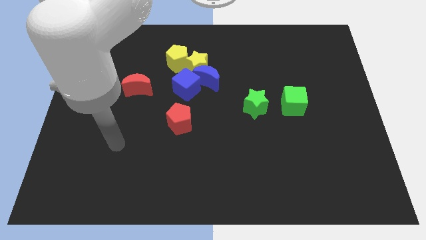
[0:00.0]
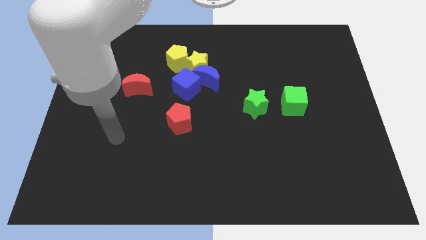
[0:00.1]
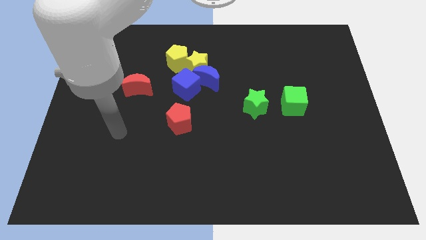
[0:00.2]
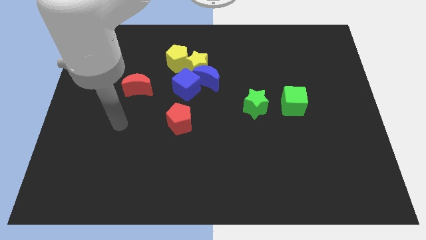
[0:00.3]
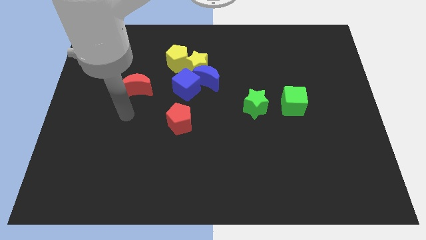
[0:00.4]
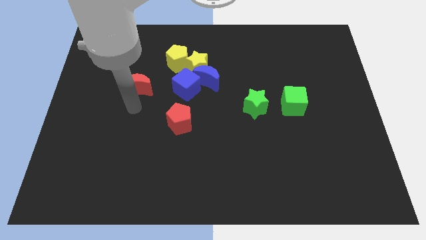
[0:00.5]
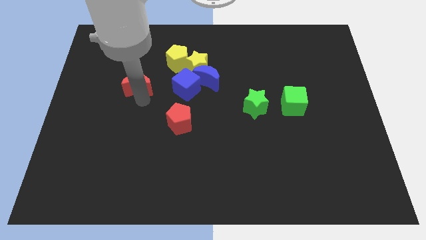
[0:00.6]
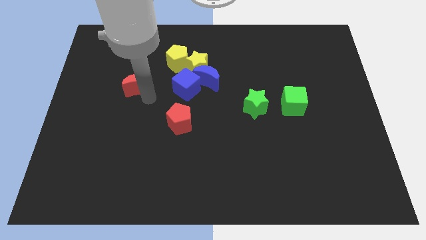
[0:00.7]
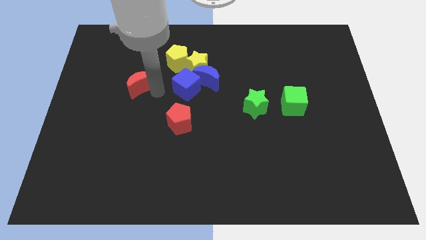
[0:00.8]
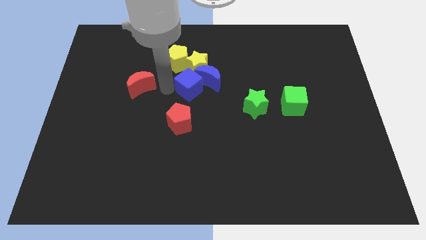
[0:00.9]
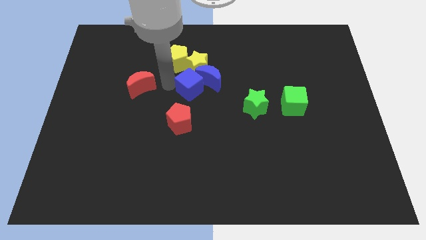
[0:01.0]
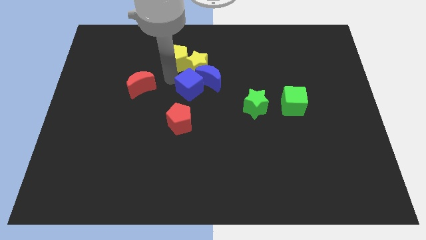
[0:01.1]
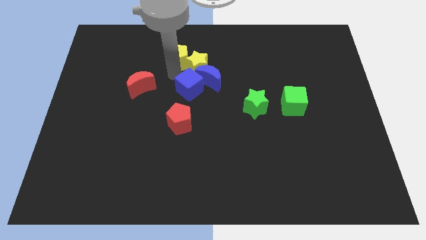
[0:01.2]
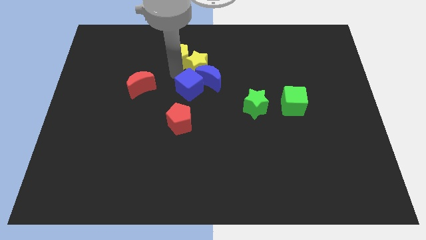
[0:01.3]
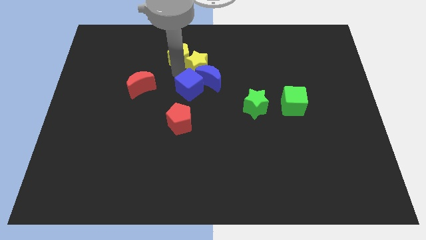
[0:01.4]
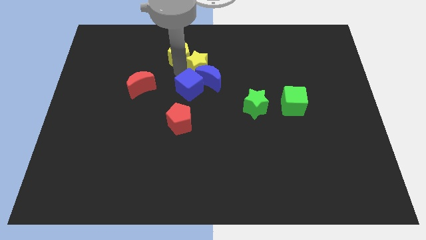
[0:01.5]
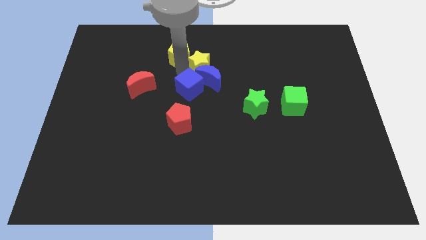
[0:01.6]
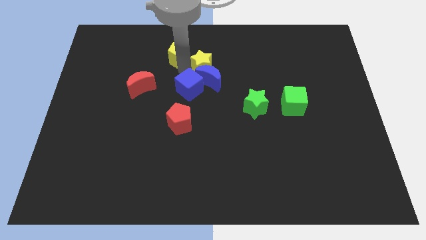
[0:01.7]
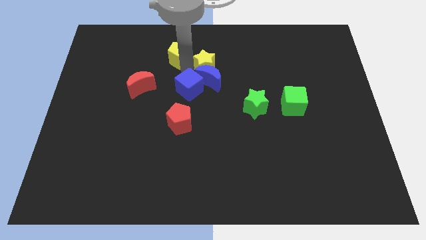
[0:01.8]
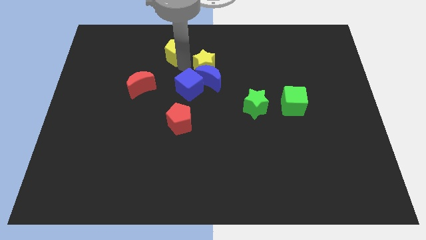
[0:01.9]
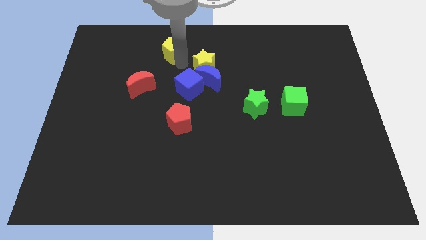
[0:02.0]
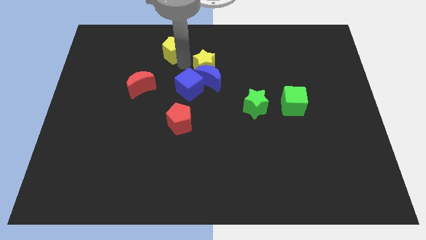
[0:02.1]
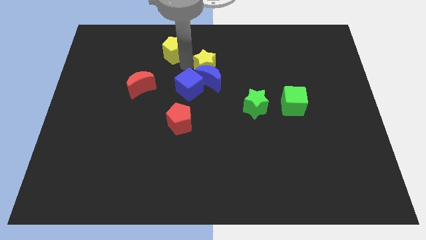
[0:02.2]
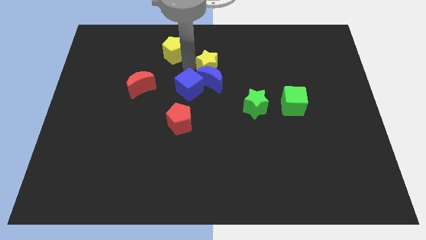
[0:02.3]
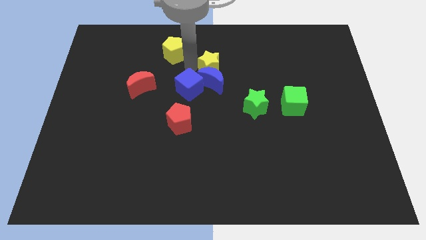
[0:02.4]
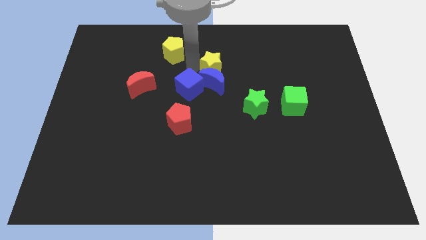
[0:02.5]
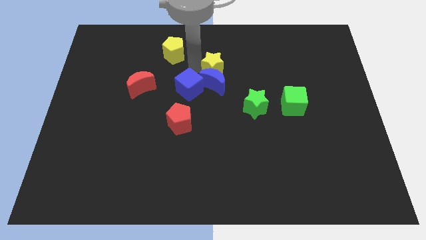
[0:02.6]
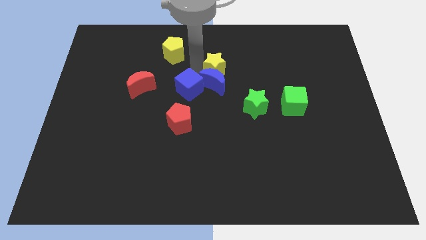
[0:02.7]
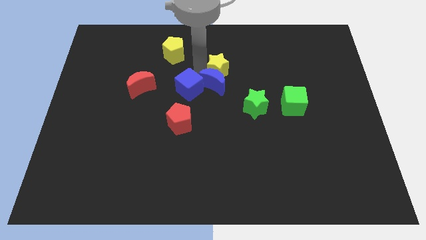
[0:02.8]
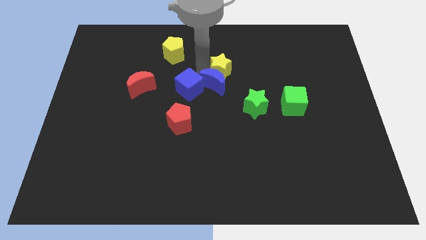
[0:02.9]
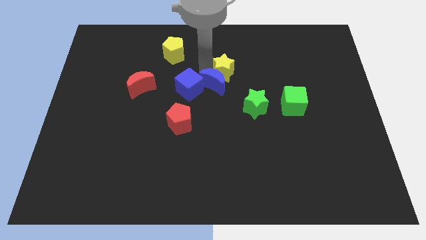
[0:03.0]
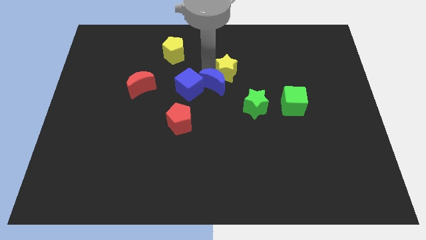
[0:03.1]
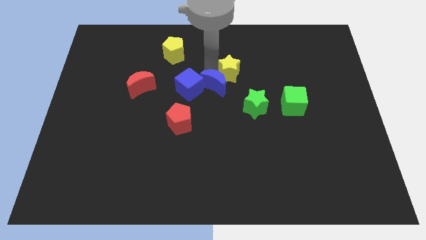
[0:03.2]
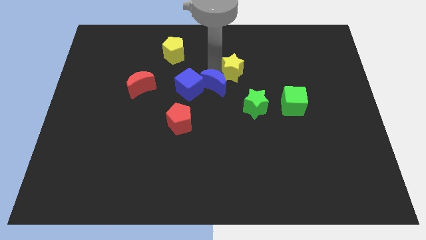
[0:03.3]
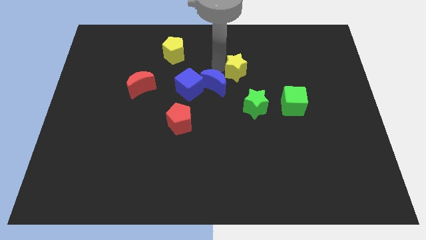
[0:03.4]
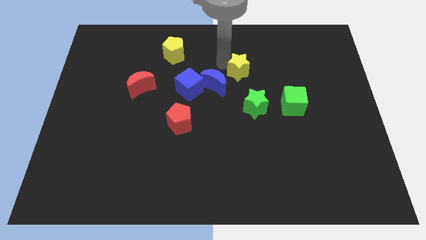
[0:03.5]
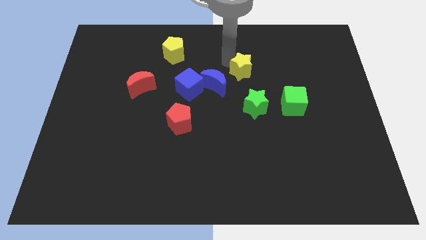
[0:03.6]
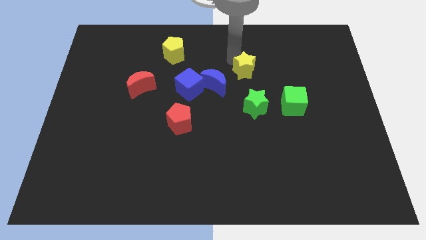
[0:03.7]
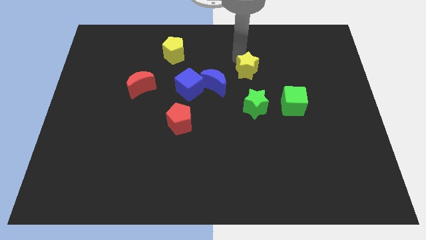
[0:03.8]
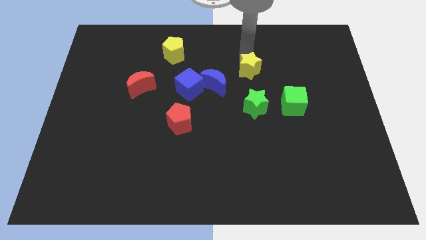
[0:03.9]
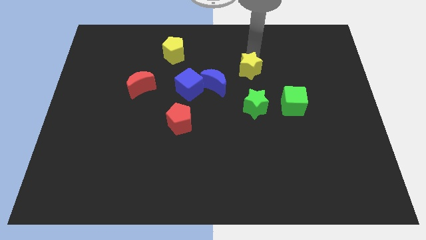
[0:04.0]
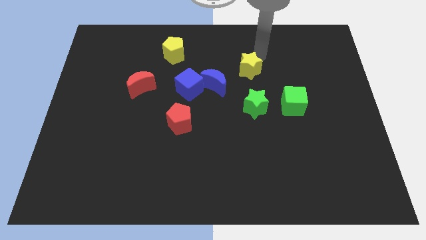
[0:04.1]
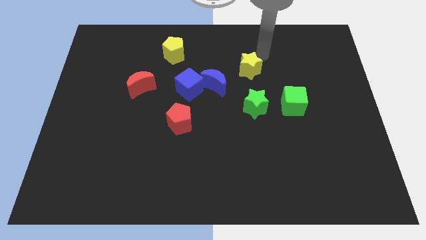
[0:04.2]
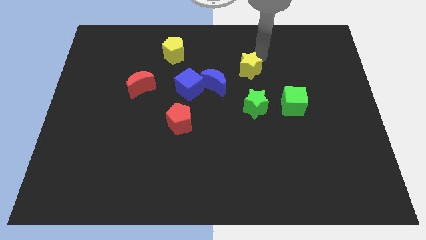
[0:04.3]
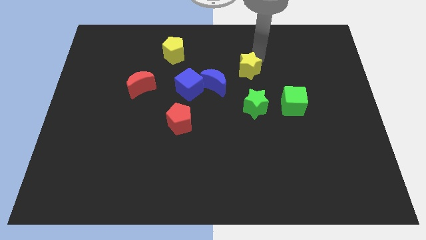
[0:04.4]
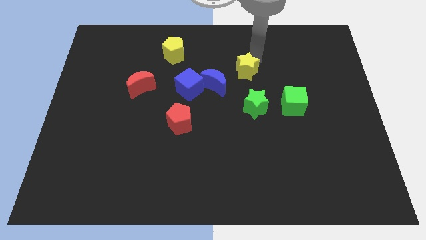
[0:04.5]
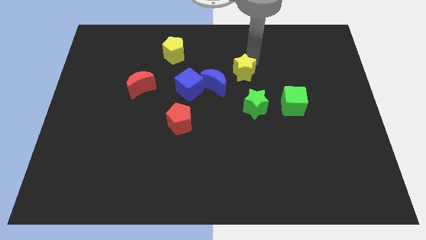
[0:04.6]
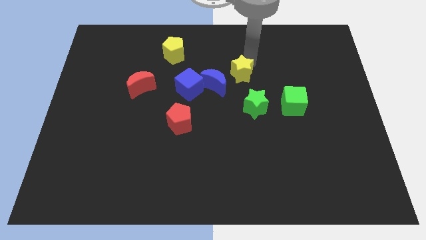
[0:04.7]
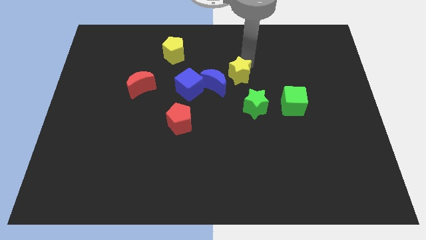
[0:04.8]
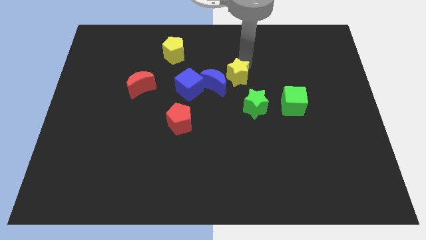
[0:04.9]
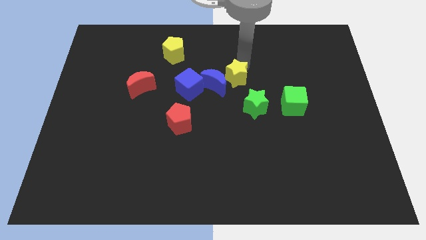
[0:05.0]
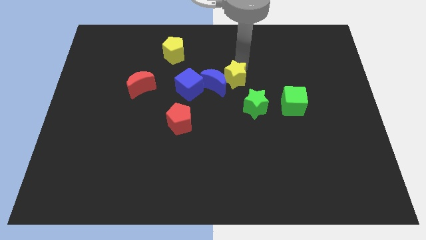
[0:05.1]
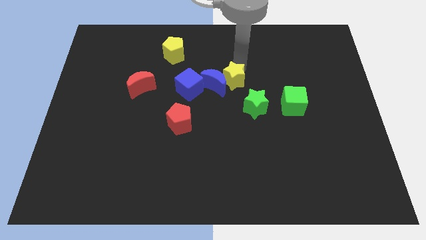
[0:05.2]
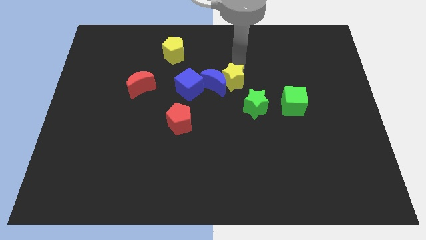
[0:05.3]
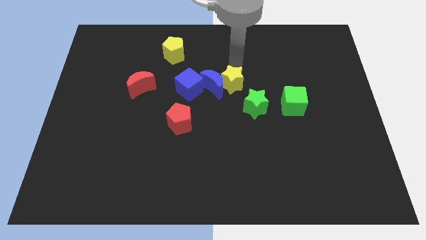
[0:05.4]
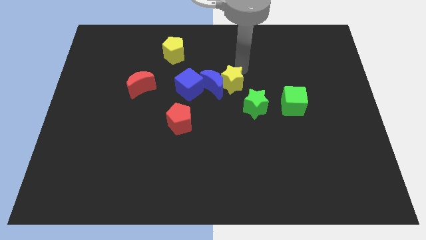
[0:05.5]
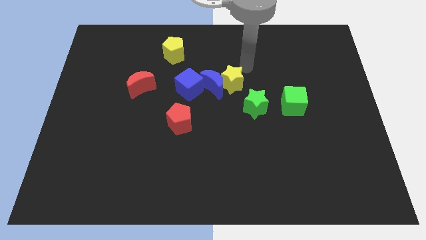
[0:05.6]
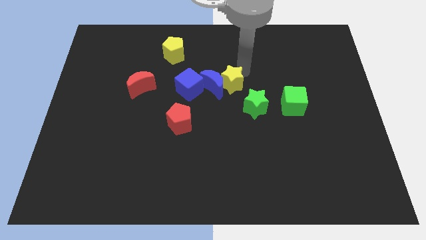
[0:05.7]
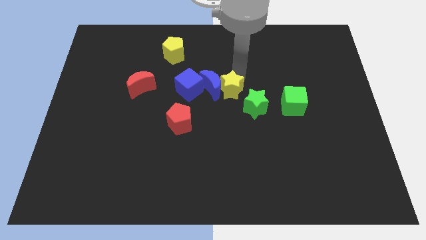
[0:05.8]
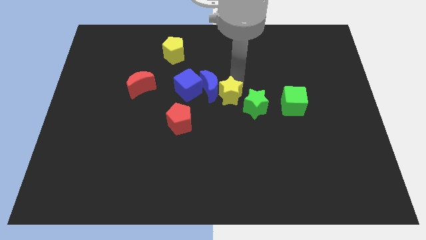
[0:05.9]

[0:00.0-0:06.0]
put the yellow star left of the green star

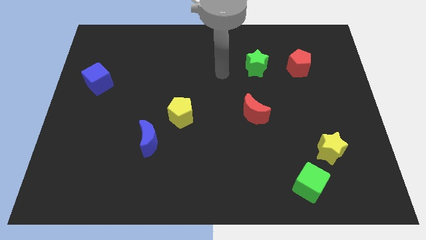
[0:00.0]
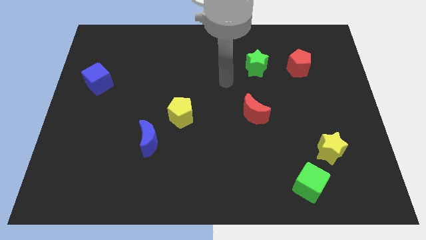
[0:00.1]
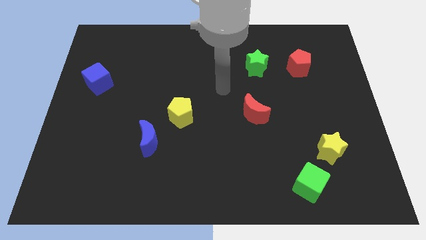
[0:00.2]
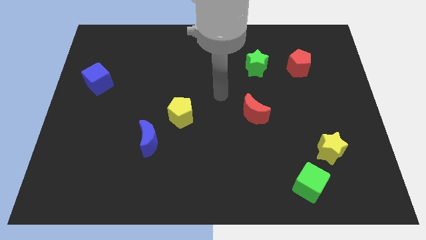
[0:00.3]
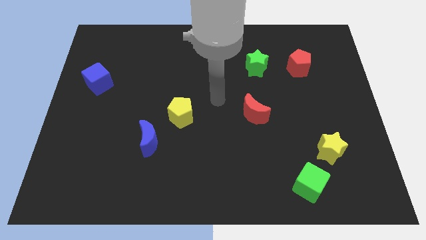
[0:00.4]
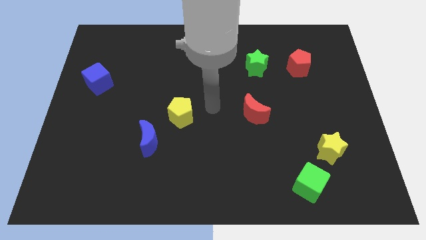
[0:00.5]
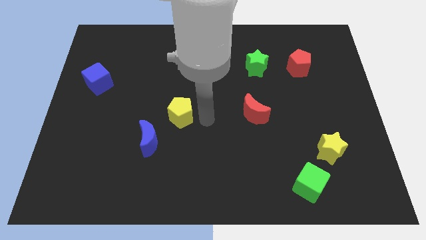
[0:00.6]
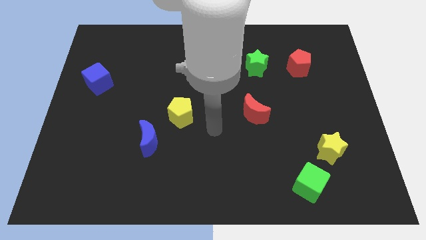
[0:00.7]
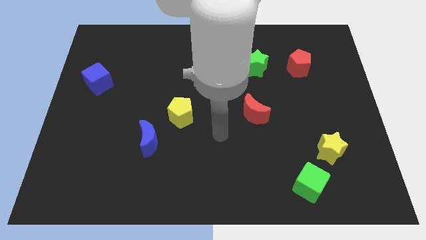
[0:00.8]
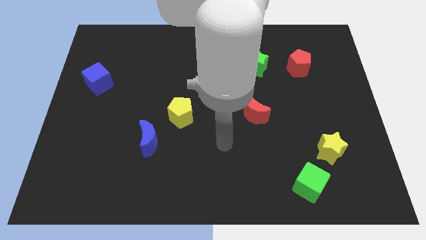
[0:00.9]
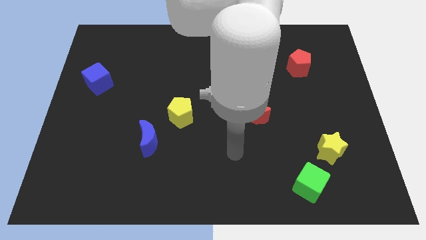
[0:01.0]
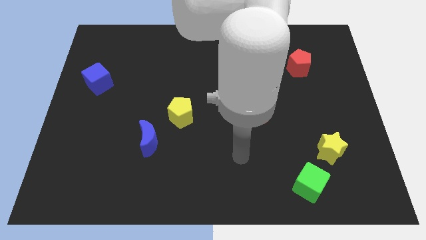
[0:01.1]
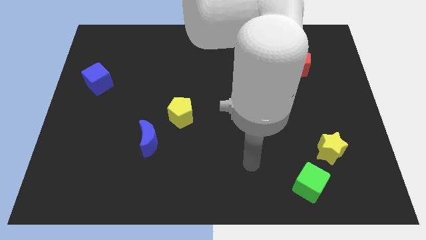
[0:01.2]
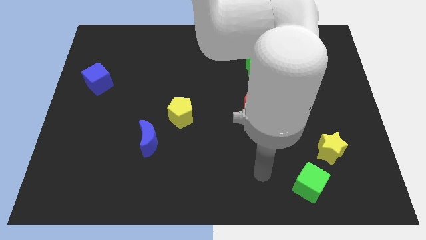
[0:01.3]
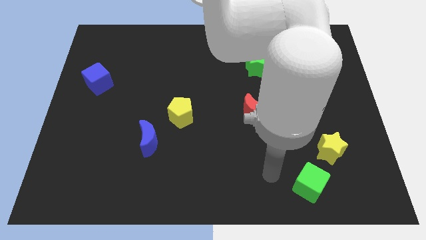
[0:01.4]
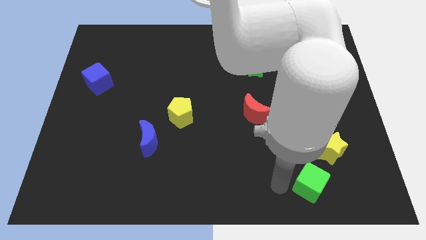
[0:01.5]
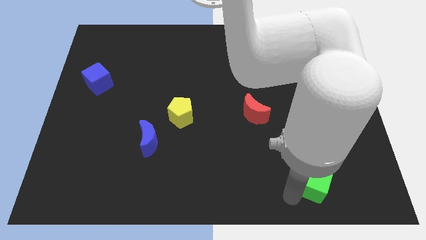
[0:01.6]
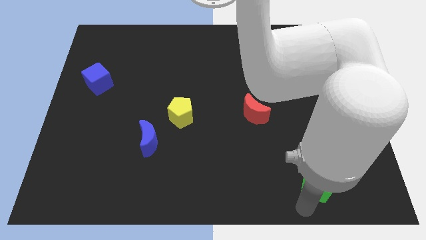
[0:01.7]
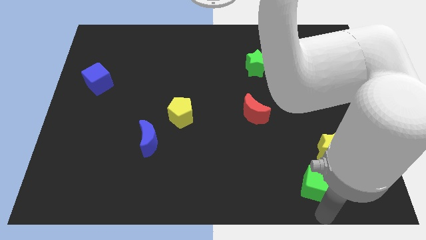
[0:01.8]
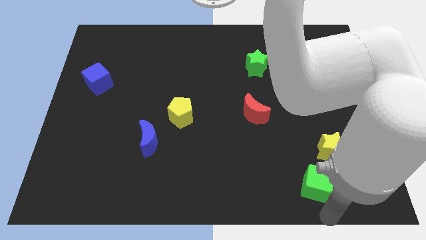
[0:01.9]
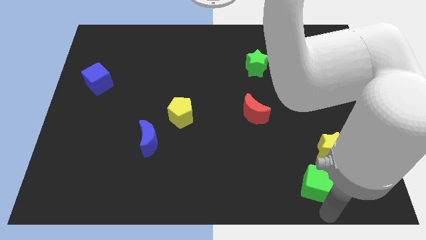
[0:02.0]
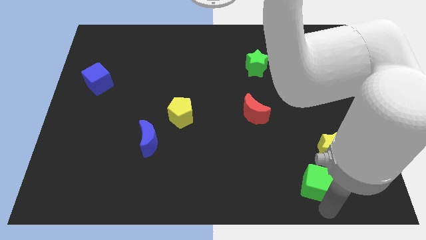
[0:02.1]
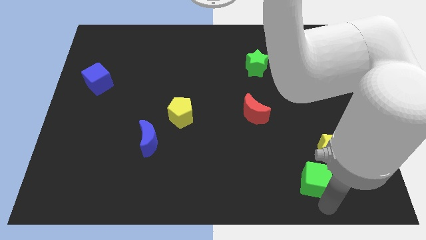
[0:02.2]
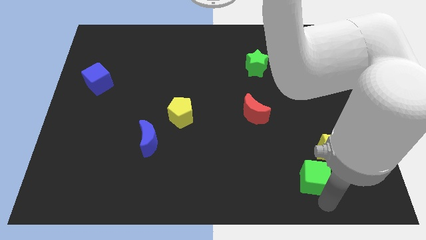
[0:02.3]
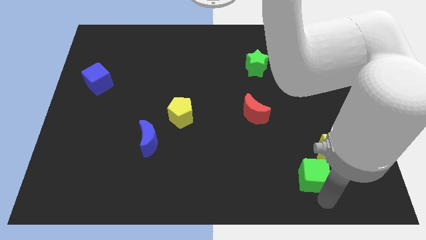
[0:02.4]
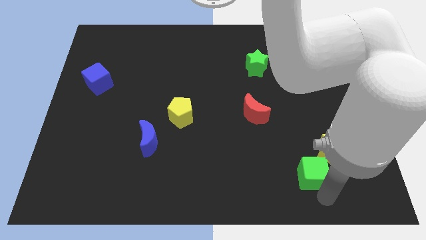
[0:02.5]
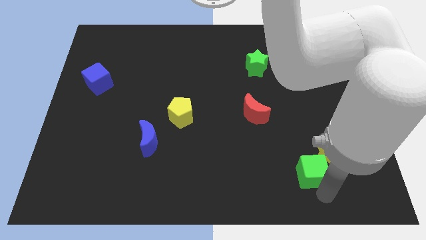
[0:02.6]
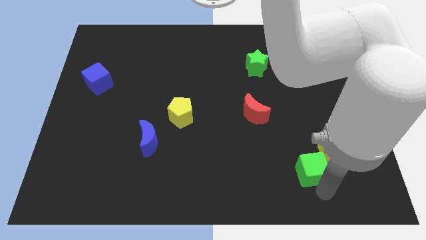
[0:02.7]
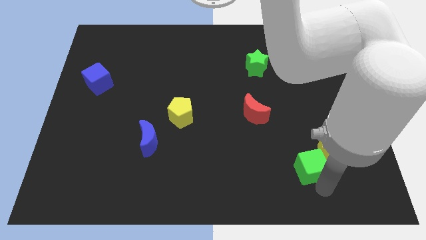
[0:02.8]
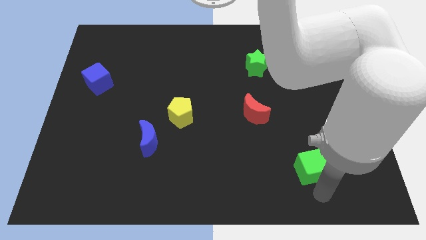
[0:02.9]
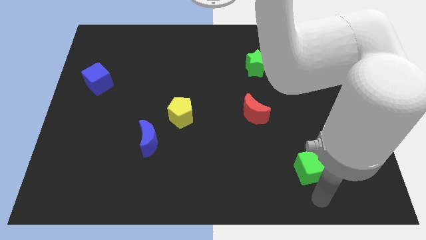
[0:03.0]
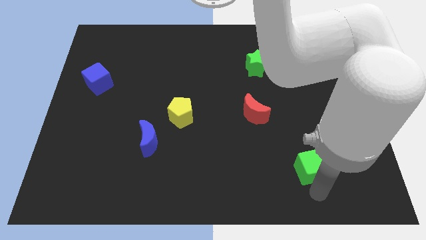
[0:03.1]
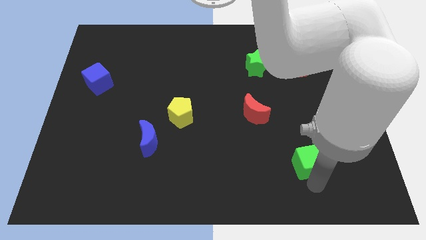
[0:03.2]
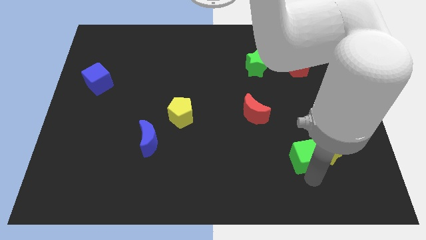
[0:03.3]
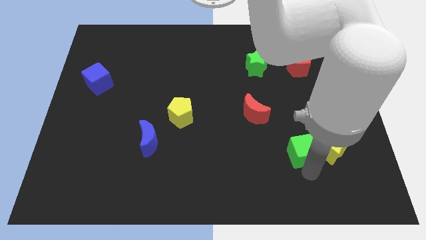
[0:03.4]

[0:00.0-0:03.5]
move the green cube to the top left side of the yellow star
